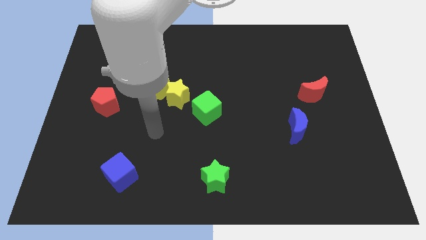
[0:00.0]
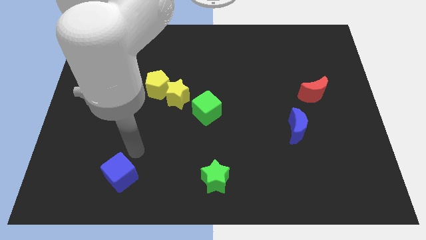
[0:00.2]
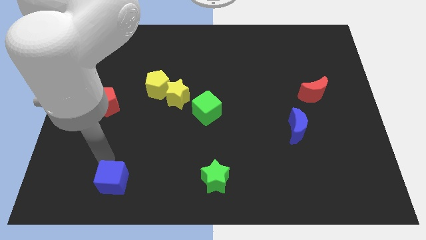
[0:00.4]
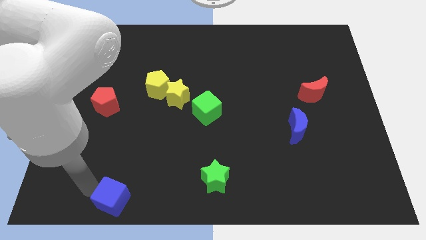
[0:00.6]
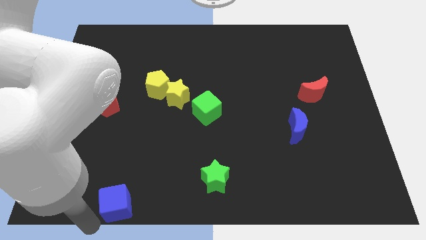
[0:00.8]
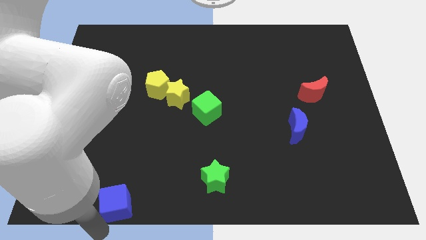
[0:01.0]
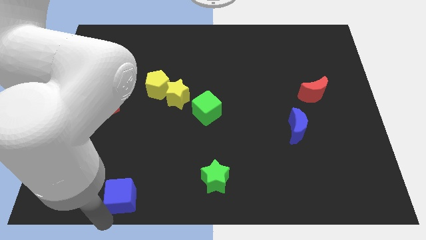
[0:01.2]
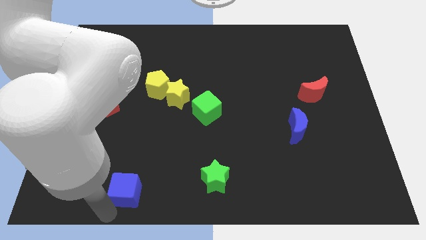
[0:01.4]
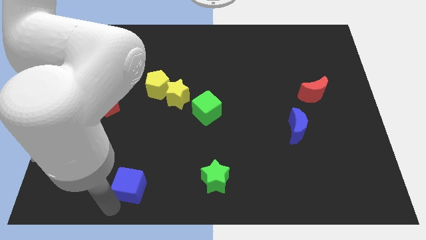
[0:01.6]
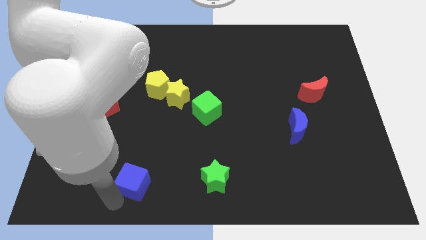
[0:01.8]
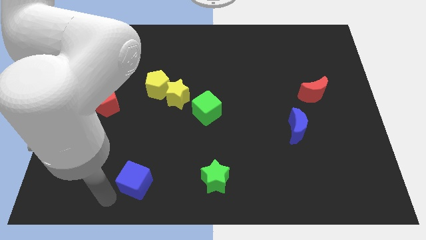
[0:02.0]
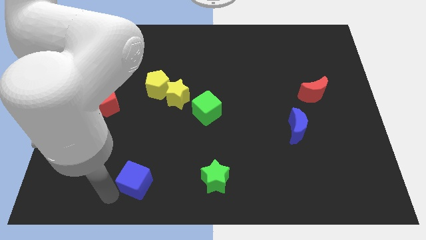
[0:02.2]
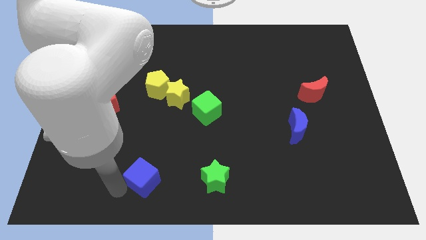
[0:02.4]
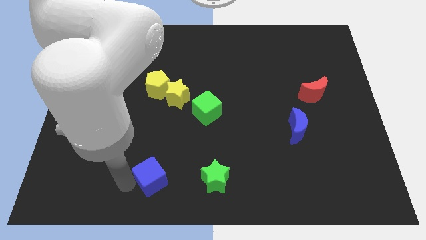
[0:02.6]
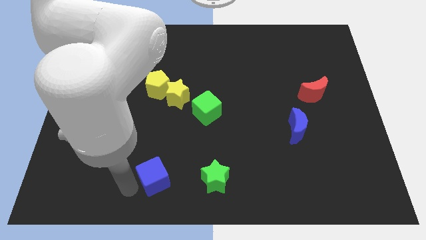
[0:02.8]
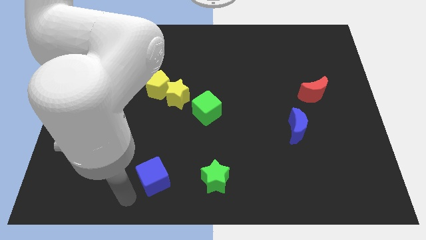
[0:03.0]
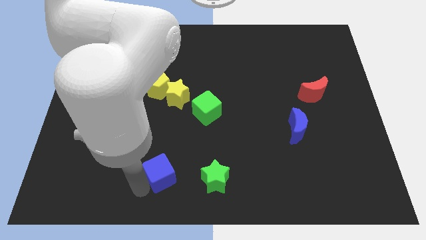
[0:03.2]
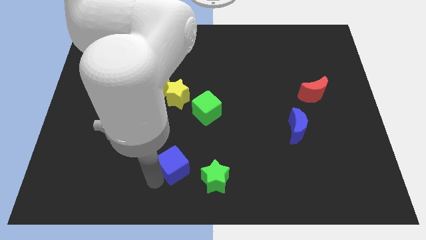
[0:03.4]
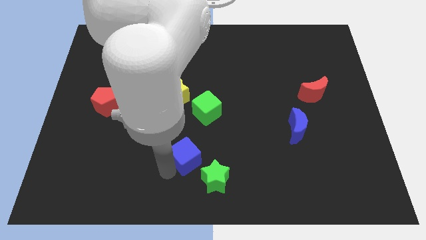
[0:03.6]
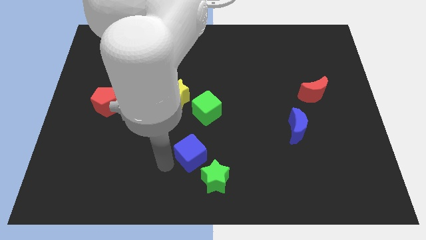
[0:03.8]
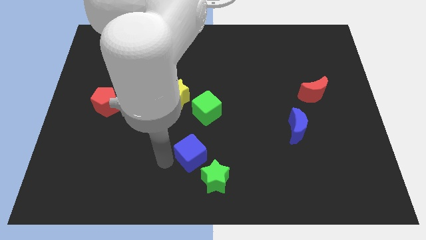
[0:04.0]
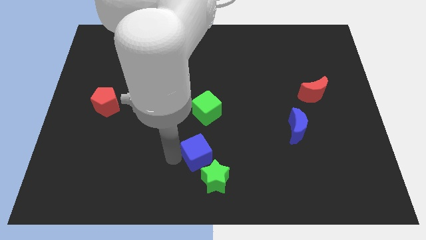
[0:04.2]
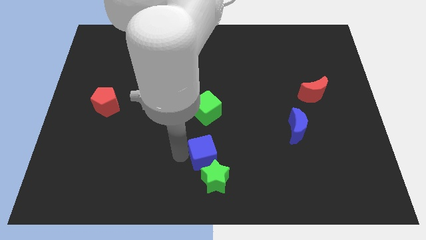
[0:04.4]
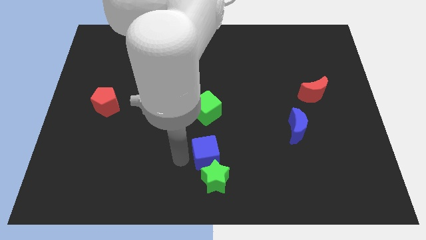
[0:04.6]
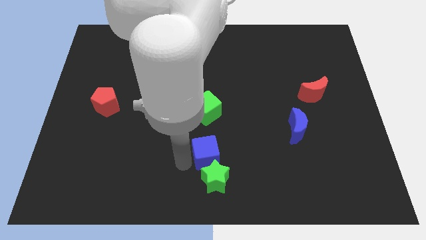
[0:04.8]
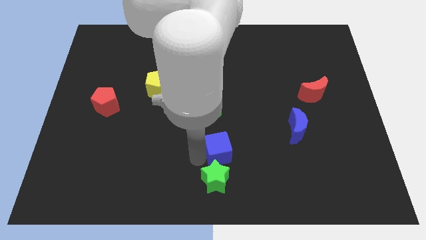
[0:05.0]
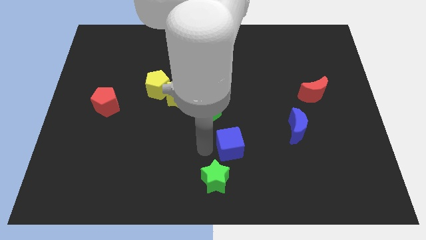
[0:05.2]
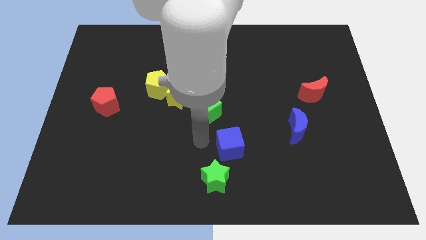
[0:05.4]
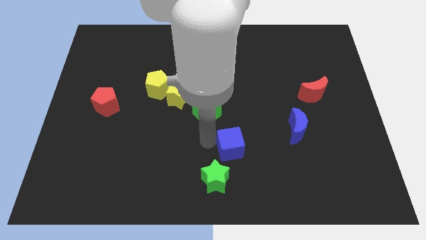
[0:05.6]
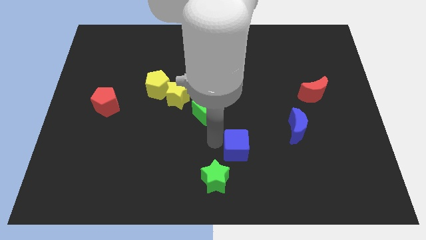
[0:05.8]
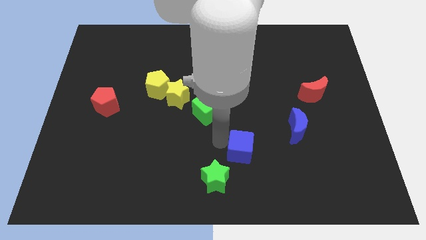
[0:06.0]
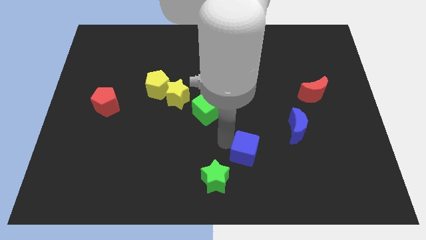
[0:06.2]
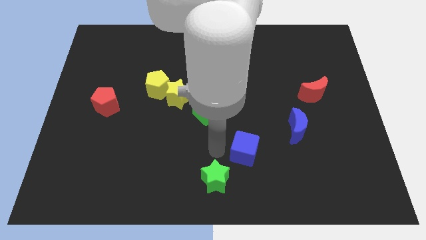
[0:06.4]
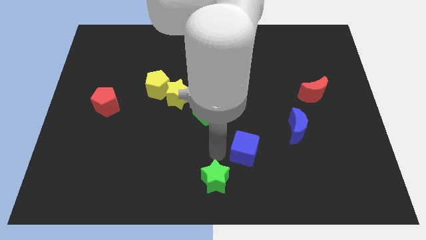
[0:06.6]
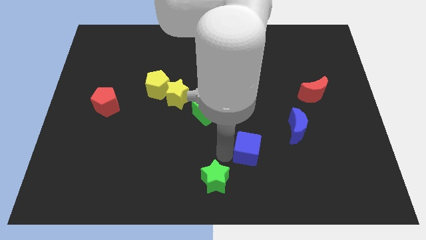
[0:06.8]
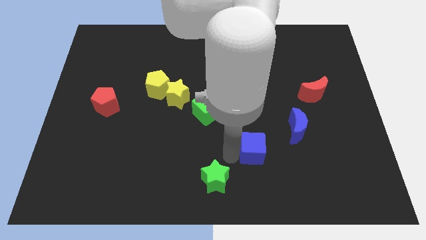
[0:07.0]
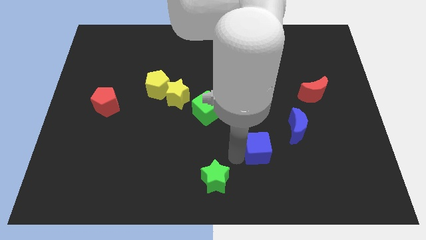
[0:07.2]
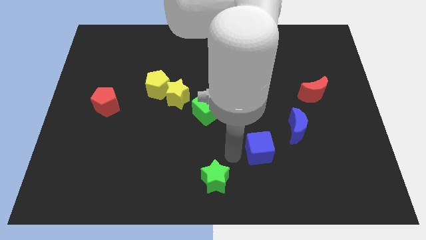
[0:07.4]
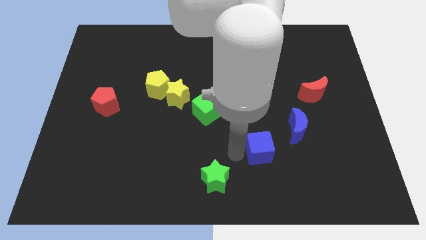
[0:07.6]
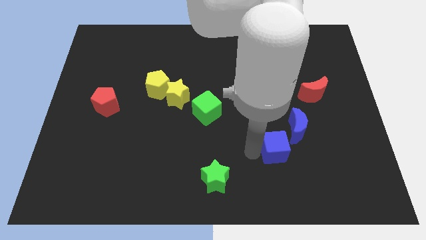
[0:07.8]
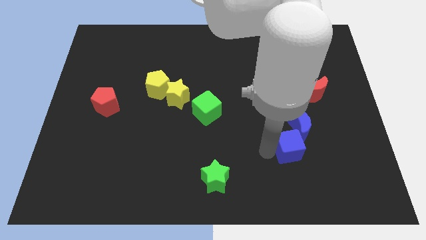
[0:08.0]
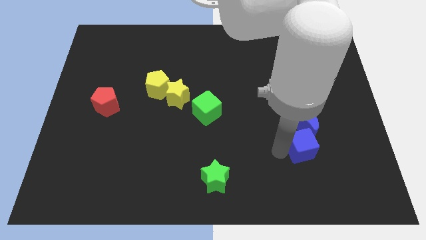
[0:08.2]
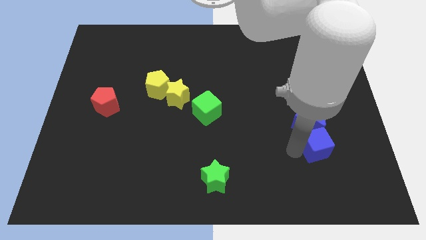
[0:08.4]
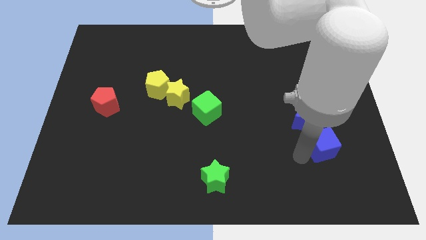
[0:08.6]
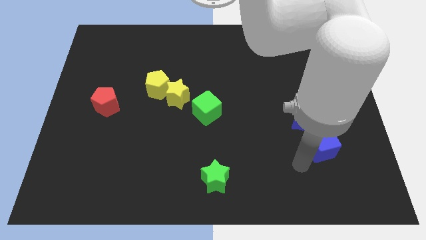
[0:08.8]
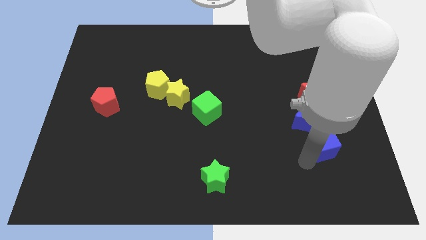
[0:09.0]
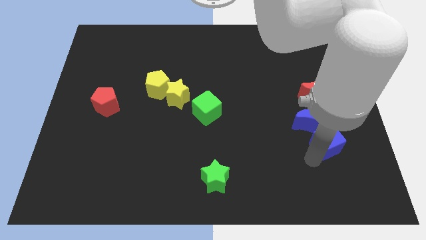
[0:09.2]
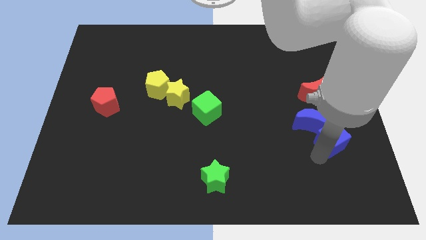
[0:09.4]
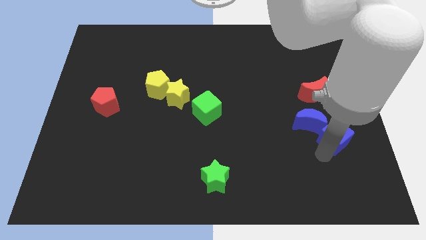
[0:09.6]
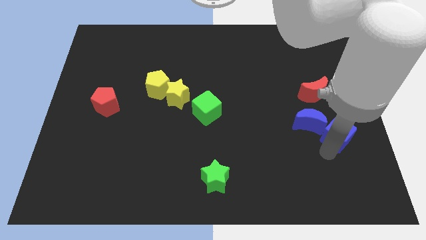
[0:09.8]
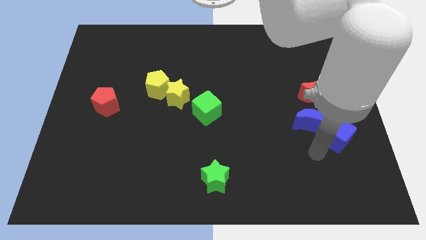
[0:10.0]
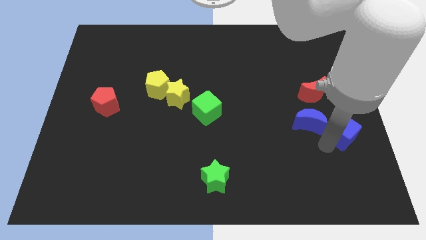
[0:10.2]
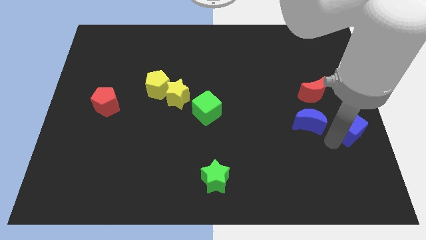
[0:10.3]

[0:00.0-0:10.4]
slide the blue cube to the right side

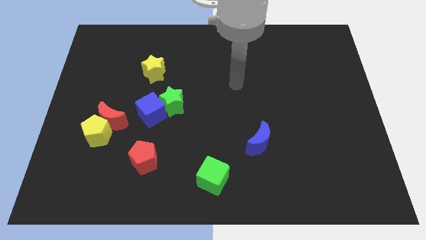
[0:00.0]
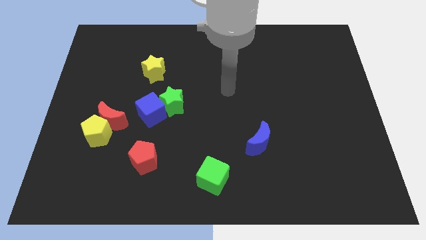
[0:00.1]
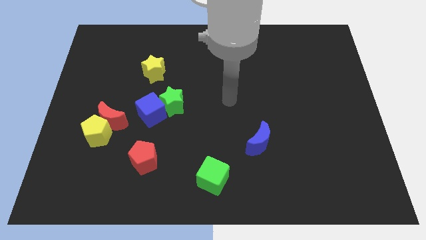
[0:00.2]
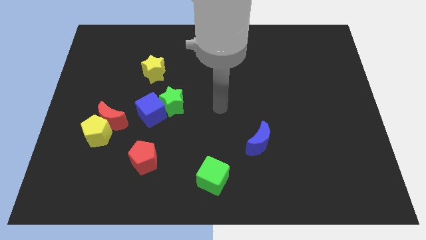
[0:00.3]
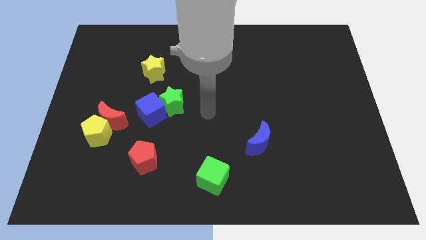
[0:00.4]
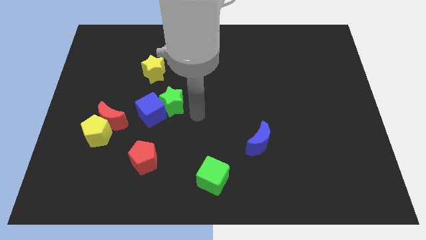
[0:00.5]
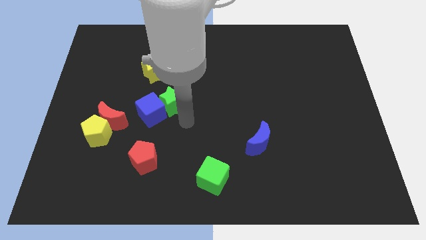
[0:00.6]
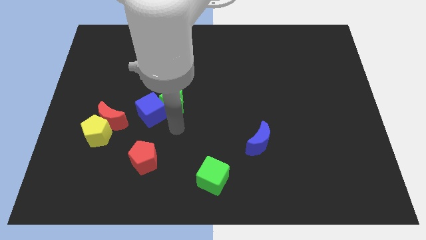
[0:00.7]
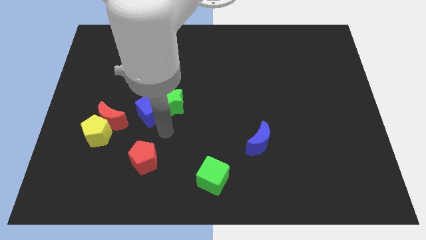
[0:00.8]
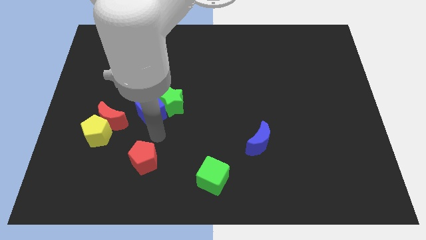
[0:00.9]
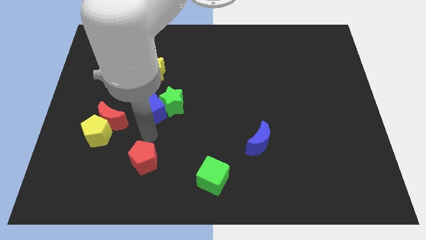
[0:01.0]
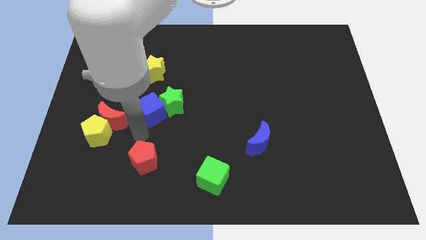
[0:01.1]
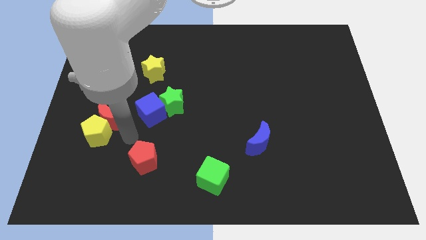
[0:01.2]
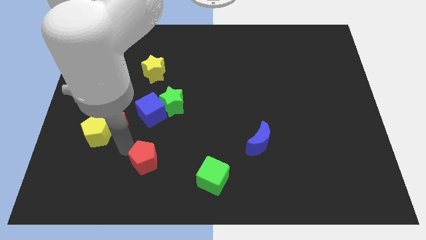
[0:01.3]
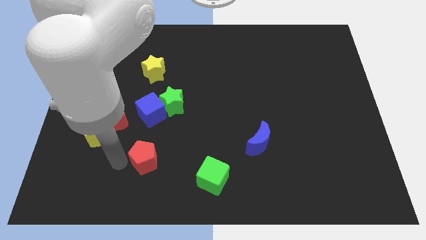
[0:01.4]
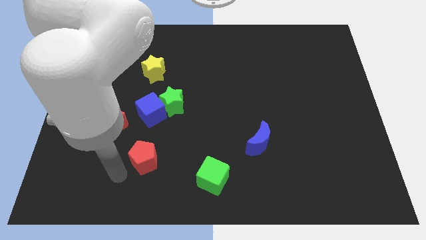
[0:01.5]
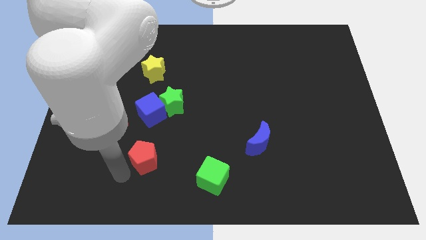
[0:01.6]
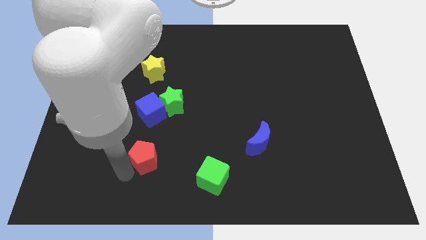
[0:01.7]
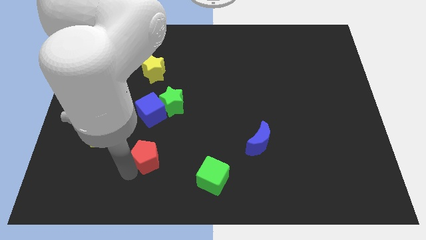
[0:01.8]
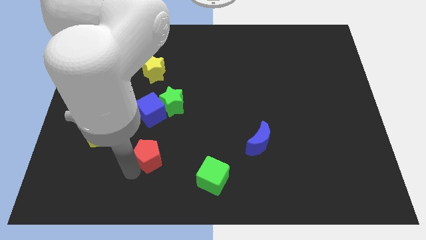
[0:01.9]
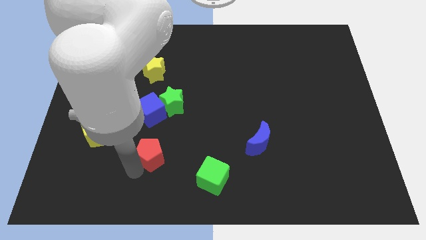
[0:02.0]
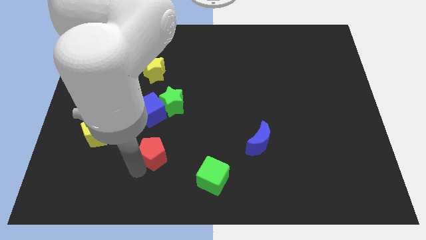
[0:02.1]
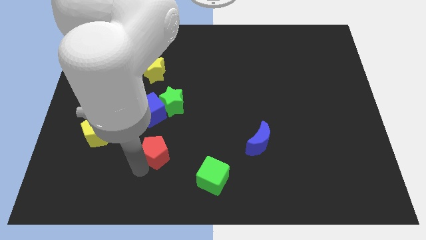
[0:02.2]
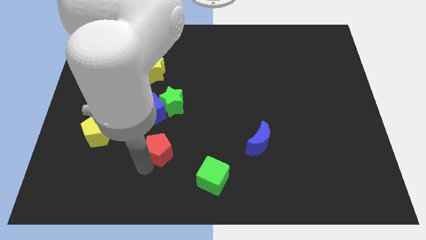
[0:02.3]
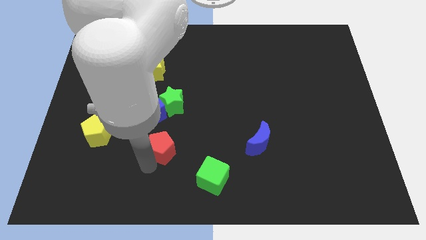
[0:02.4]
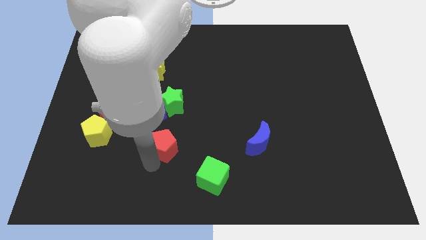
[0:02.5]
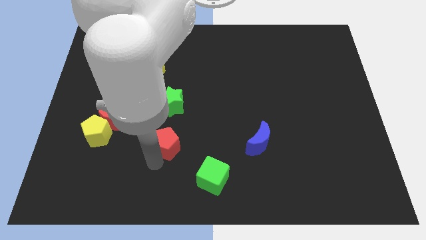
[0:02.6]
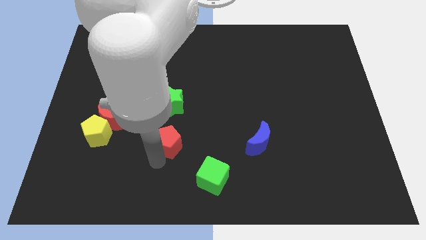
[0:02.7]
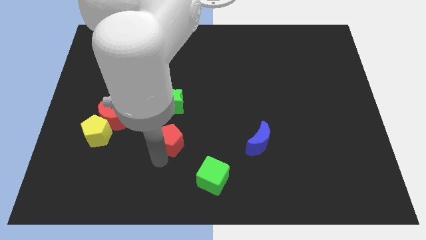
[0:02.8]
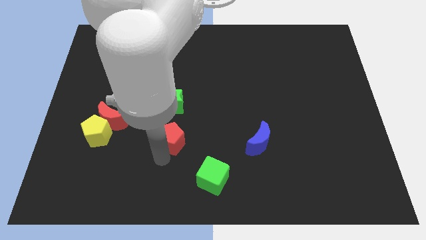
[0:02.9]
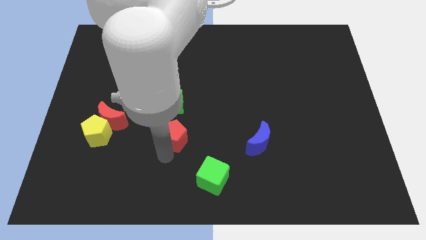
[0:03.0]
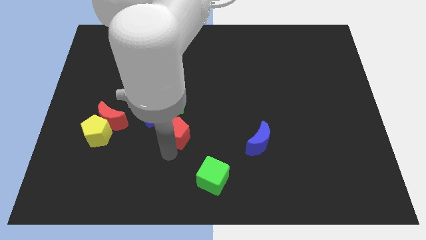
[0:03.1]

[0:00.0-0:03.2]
move the red pentagon to the center of the board
